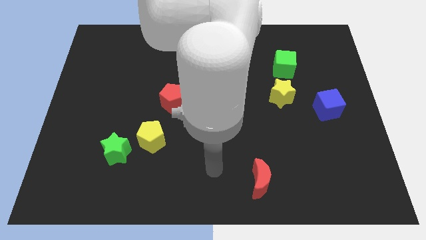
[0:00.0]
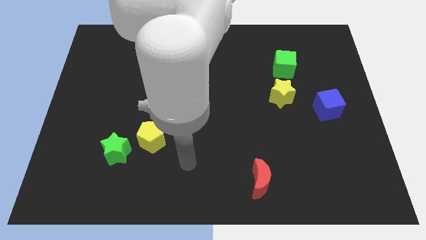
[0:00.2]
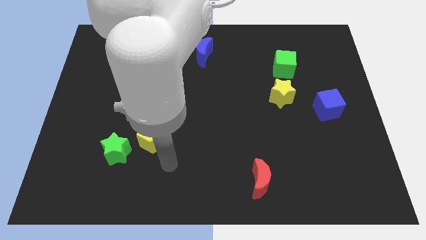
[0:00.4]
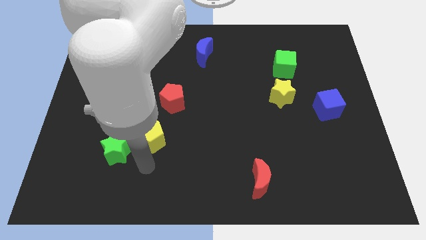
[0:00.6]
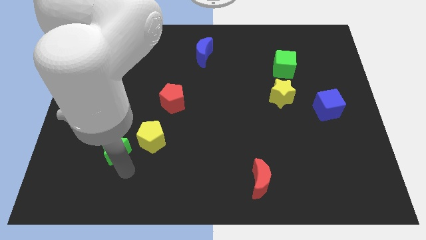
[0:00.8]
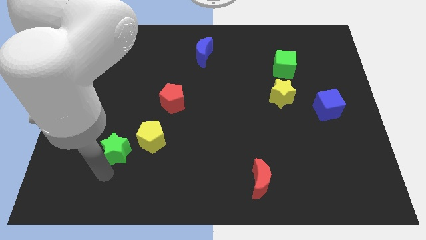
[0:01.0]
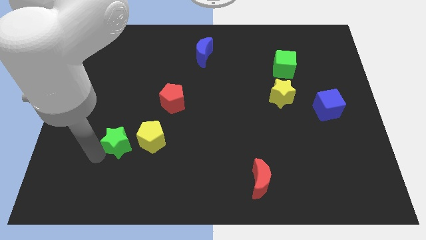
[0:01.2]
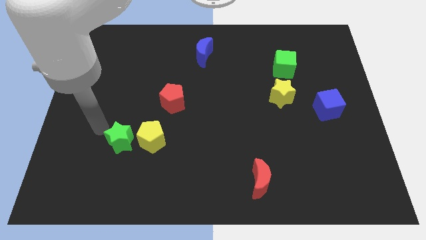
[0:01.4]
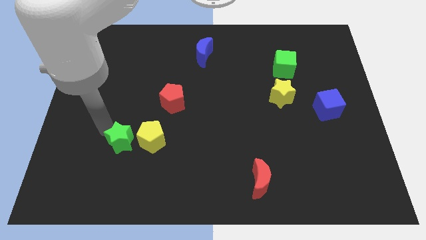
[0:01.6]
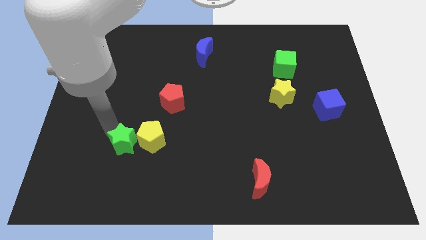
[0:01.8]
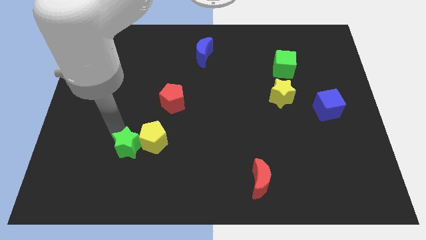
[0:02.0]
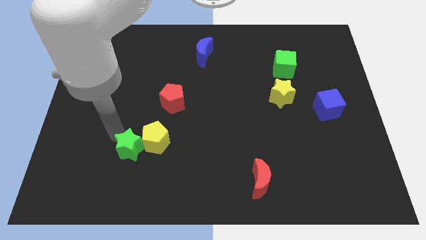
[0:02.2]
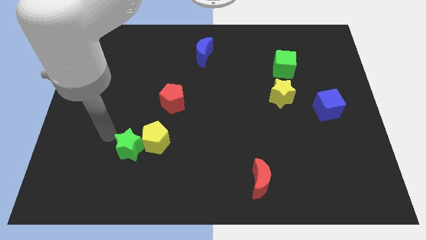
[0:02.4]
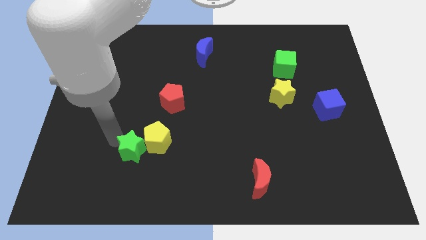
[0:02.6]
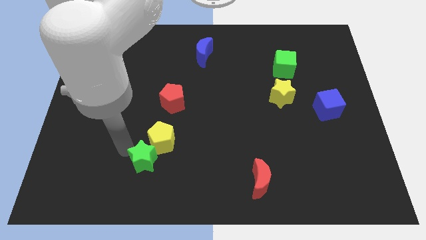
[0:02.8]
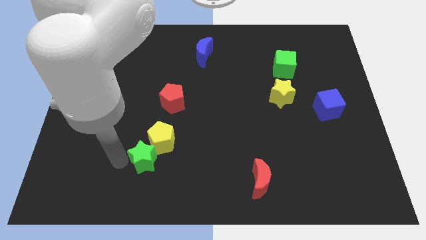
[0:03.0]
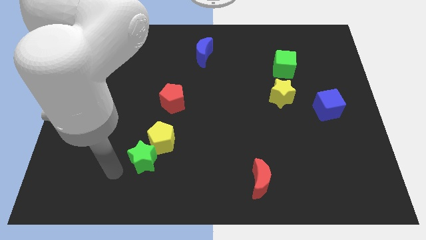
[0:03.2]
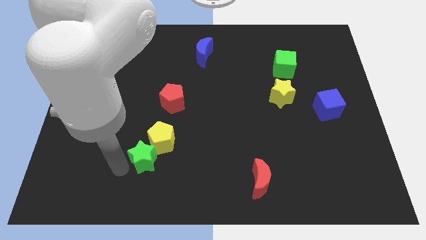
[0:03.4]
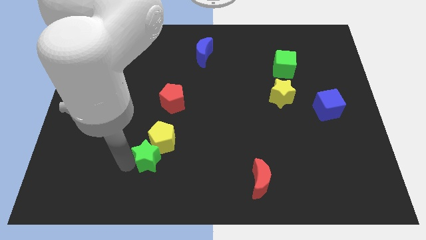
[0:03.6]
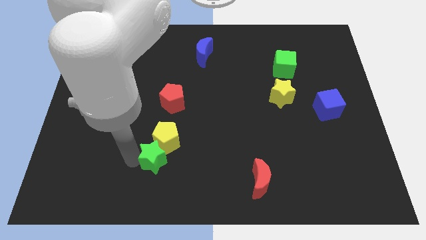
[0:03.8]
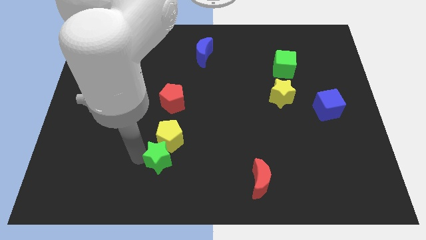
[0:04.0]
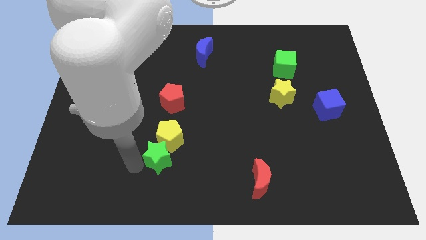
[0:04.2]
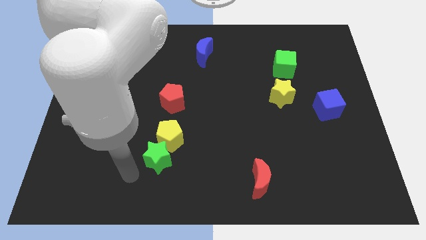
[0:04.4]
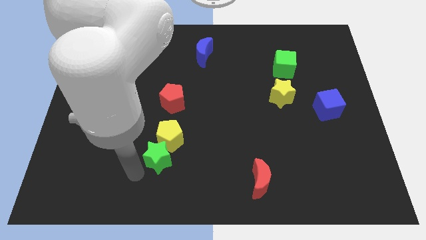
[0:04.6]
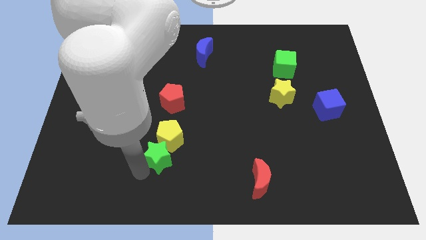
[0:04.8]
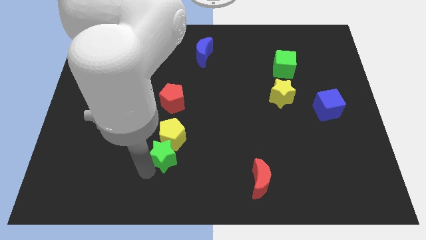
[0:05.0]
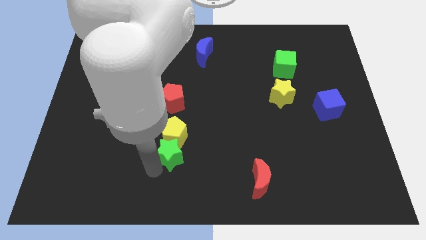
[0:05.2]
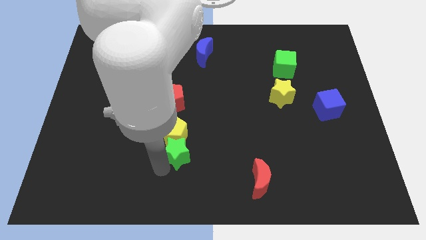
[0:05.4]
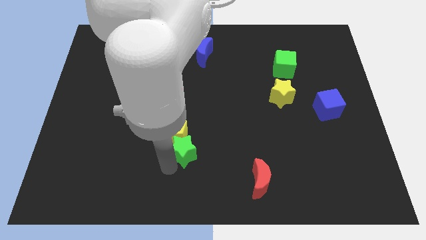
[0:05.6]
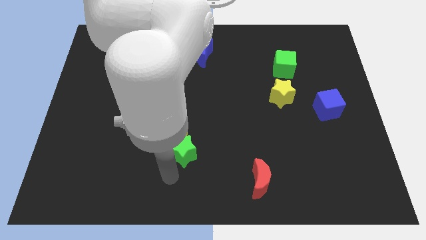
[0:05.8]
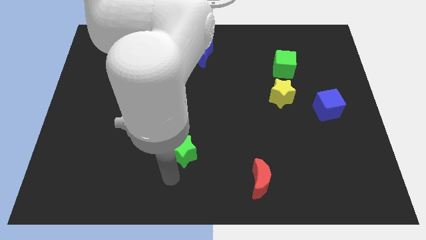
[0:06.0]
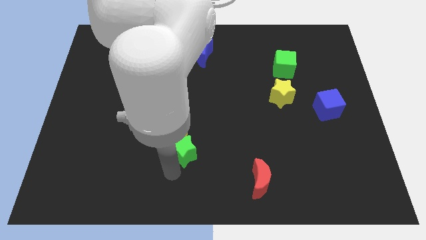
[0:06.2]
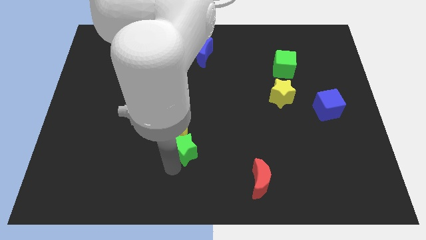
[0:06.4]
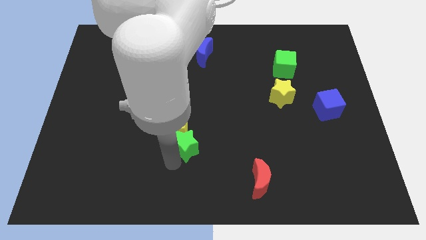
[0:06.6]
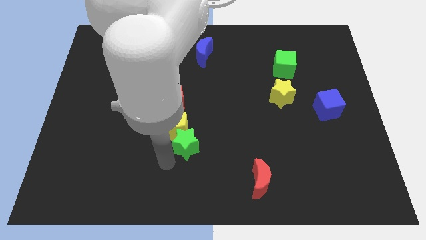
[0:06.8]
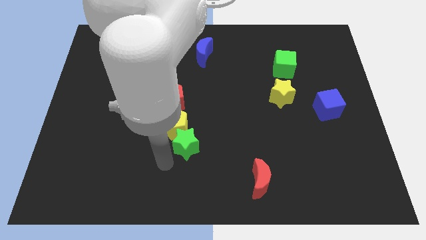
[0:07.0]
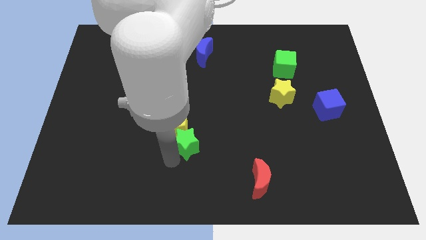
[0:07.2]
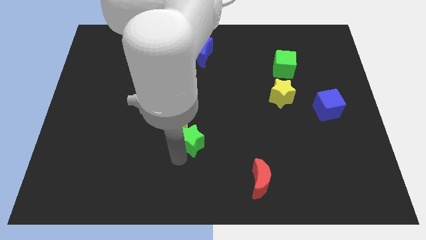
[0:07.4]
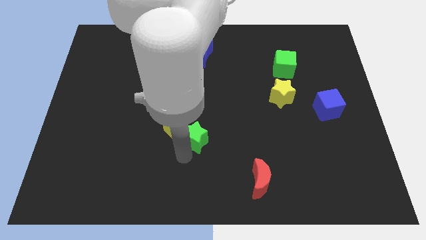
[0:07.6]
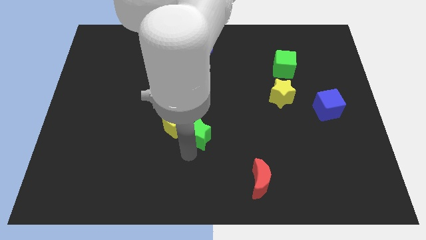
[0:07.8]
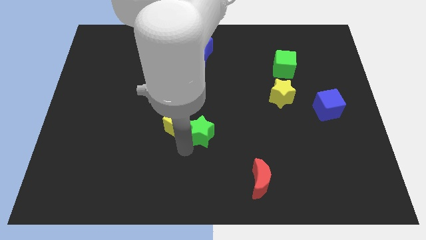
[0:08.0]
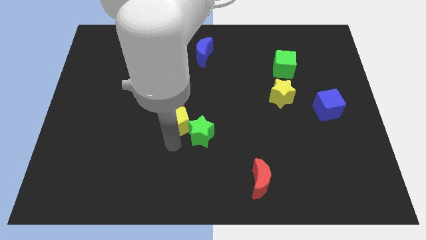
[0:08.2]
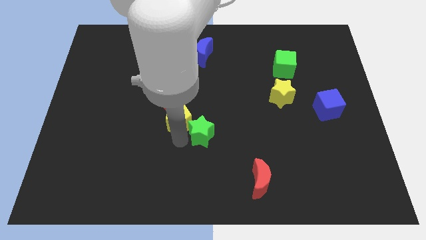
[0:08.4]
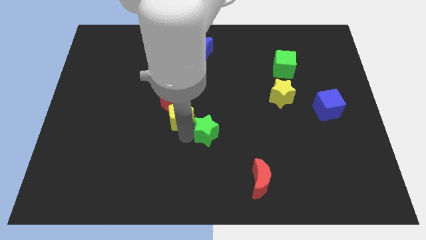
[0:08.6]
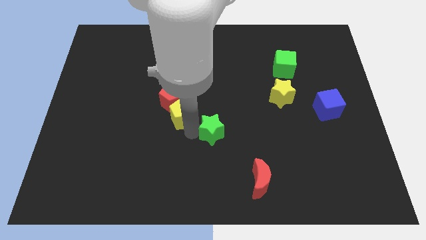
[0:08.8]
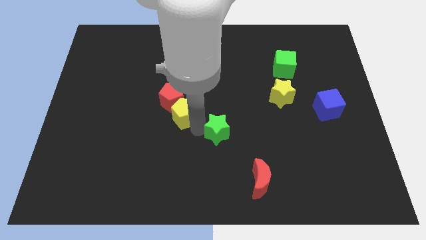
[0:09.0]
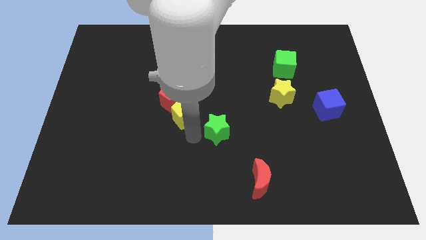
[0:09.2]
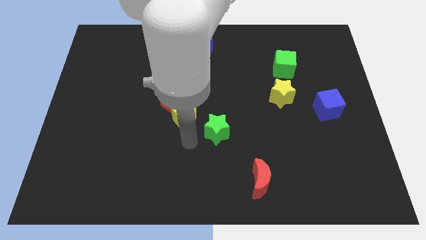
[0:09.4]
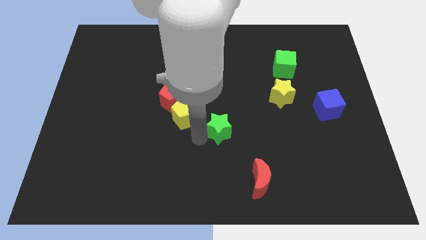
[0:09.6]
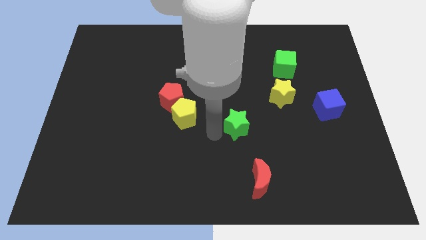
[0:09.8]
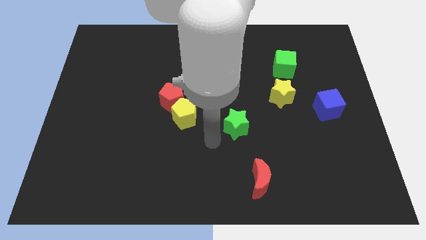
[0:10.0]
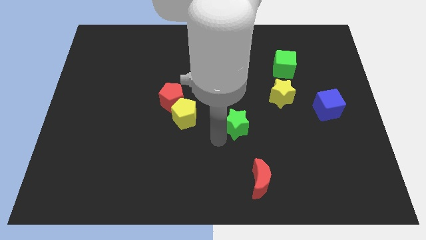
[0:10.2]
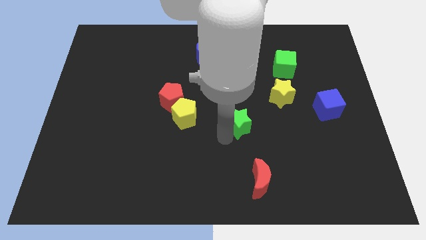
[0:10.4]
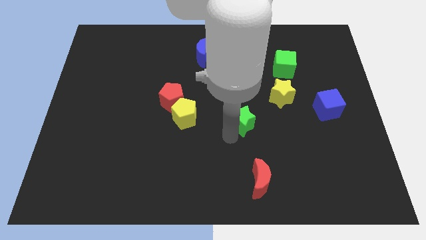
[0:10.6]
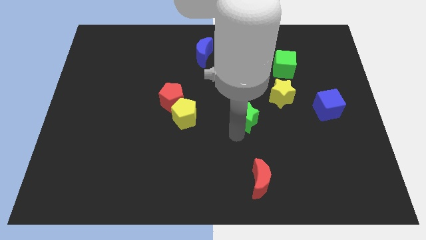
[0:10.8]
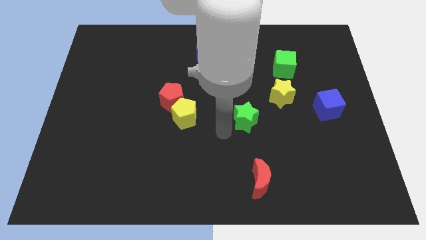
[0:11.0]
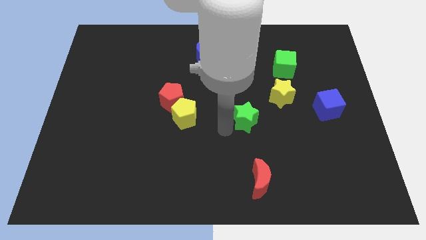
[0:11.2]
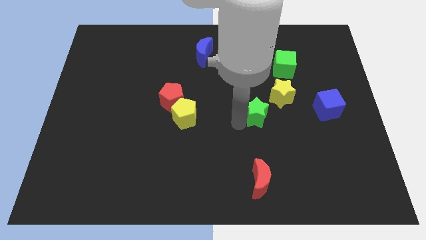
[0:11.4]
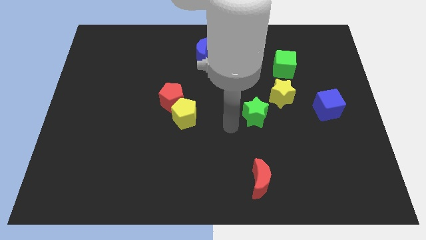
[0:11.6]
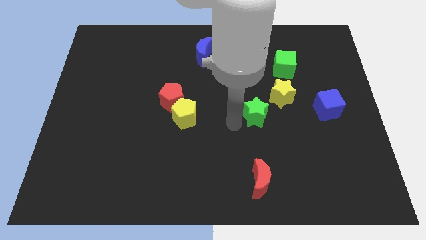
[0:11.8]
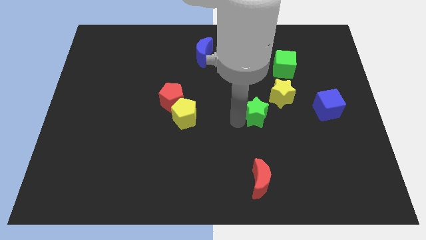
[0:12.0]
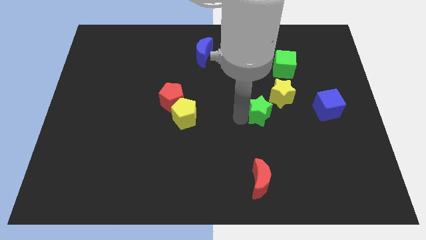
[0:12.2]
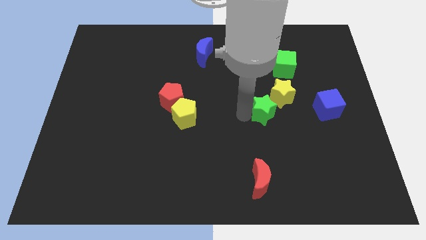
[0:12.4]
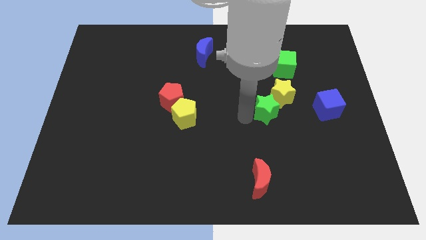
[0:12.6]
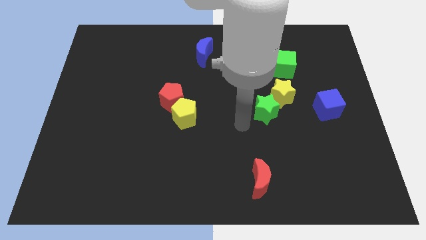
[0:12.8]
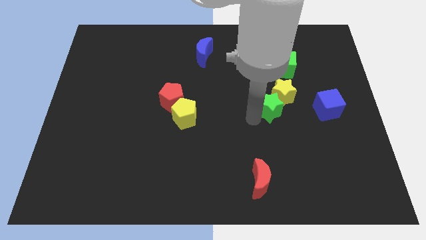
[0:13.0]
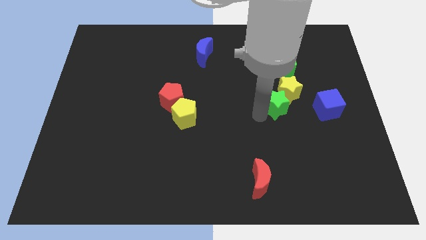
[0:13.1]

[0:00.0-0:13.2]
push the green star below the green cube
